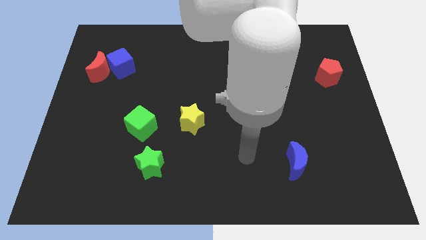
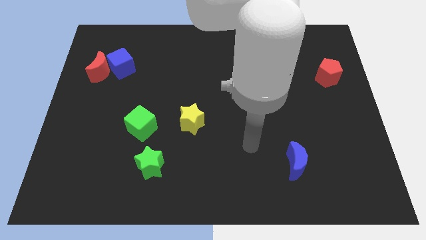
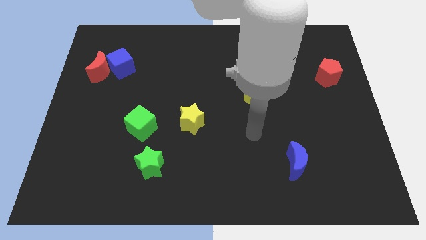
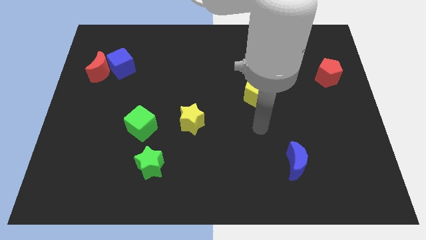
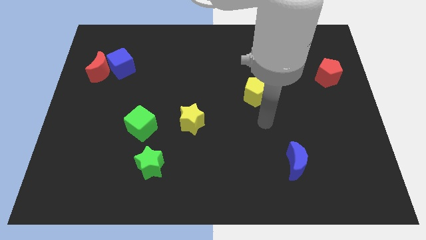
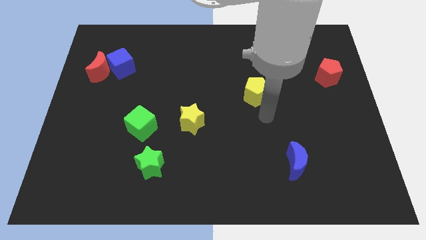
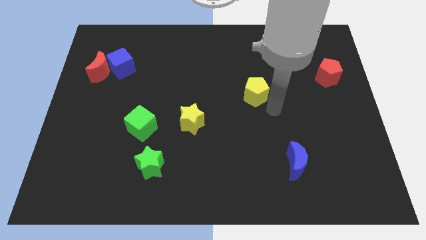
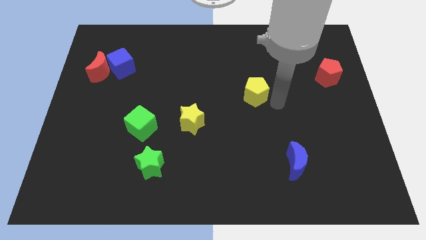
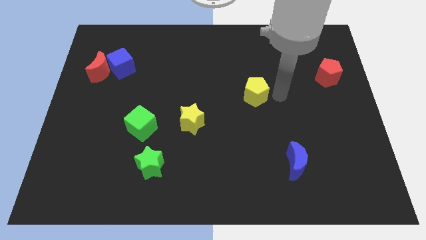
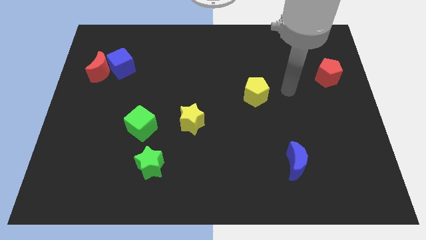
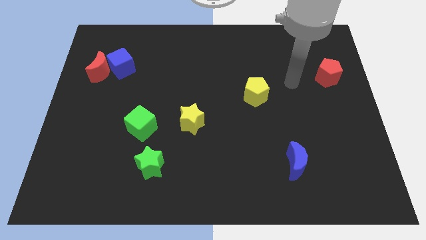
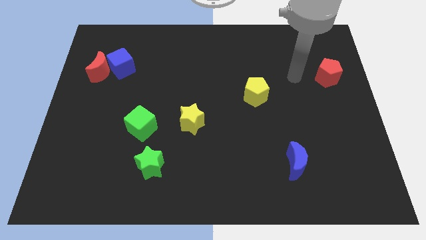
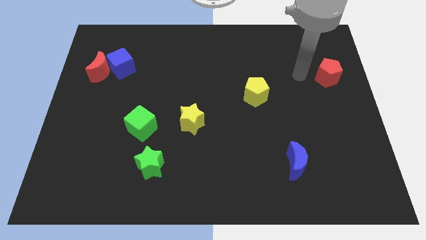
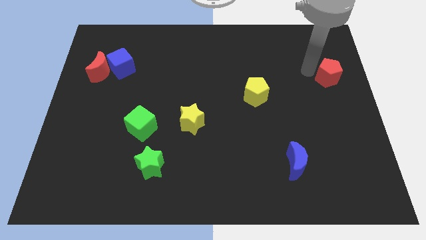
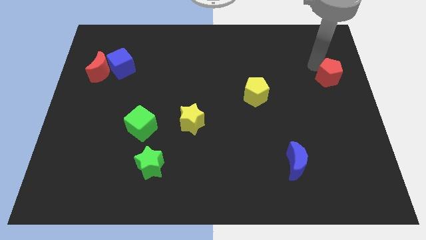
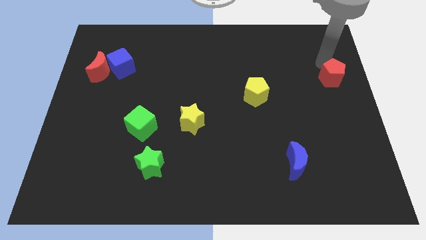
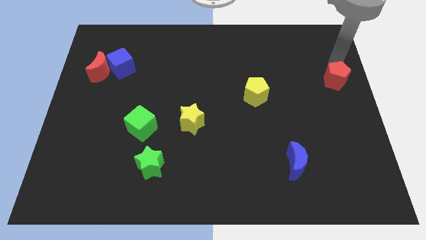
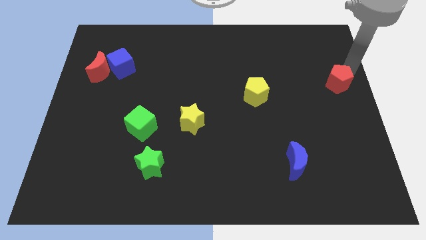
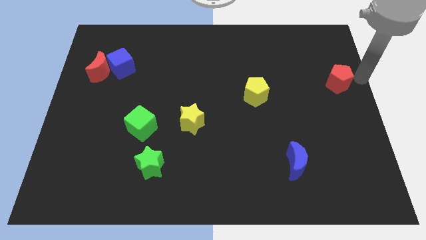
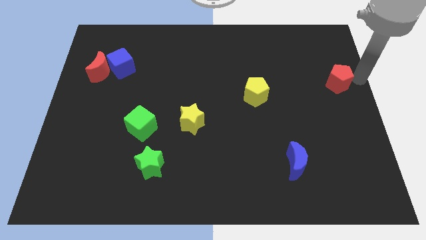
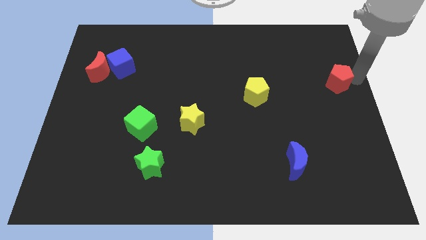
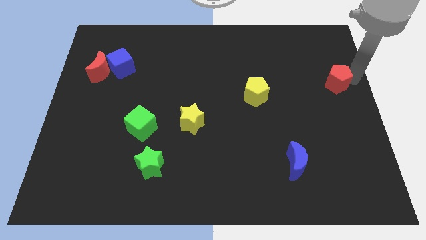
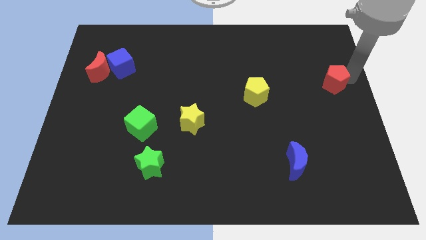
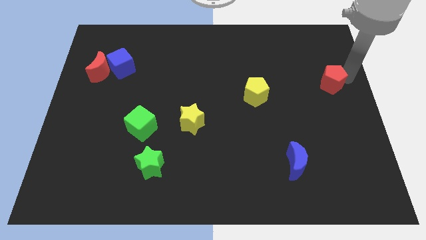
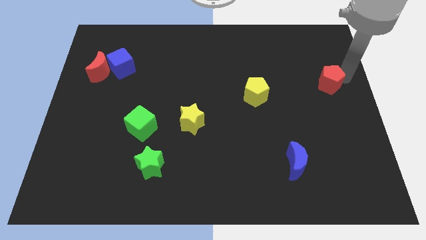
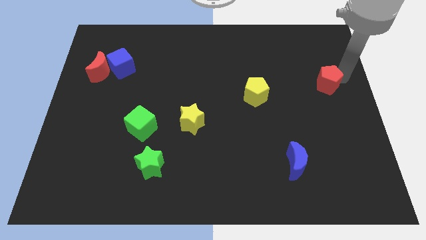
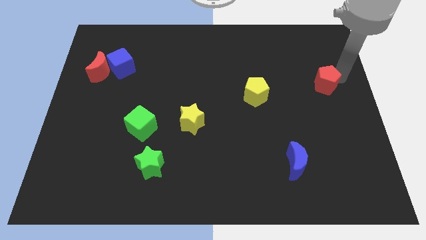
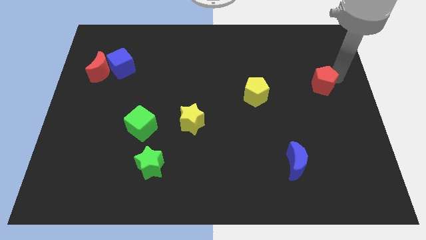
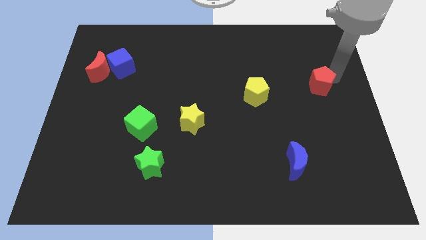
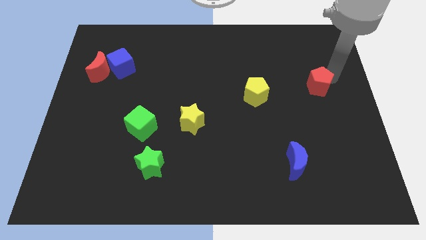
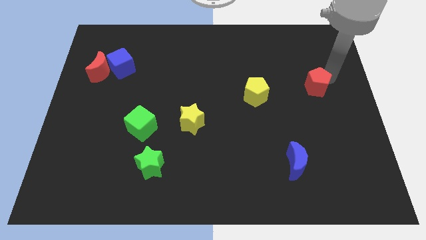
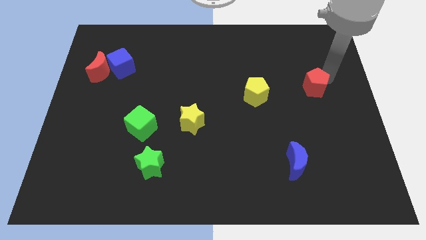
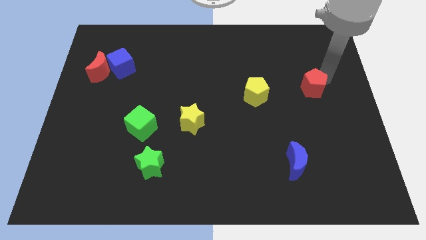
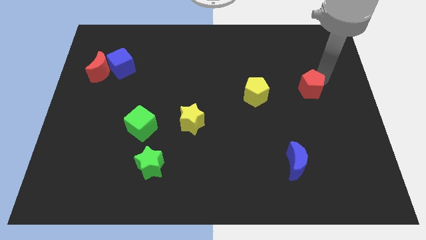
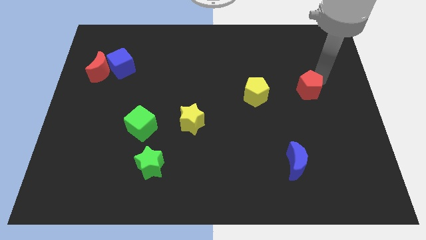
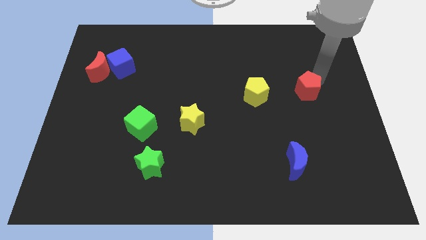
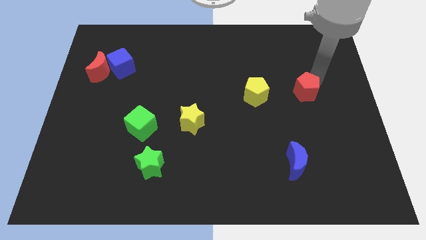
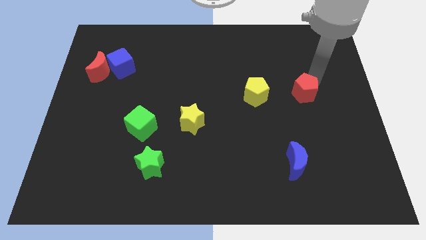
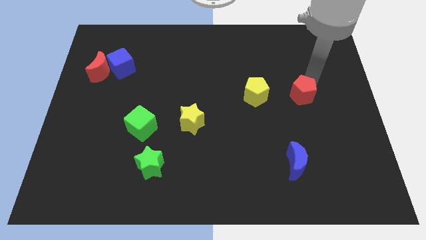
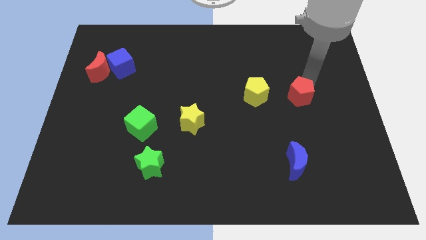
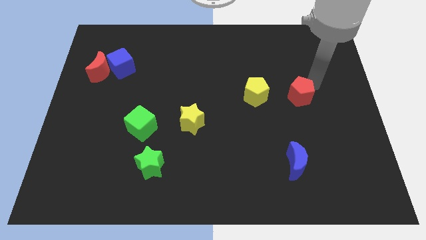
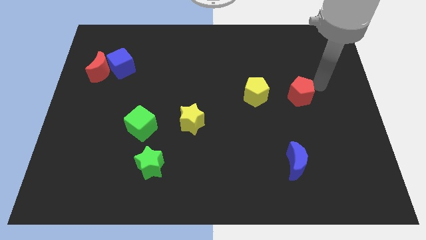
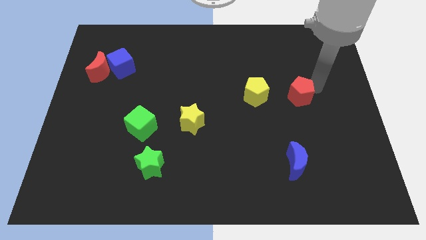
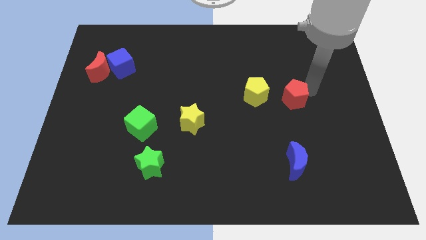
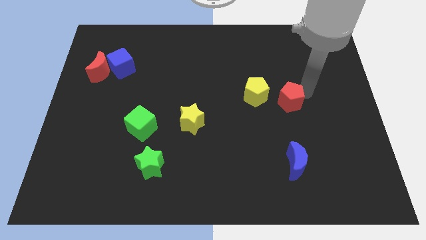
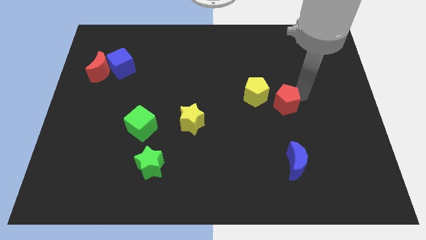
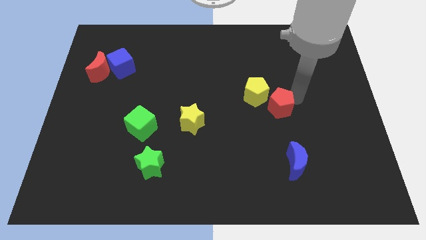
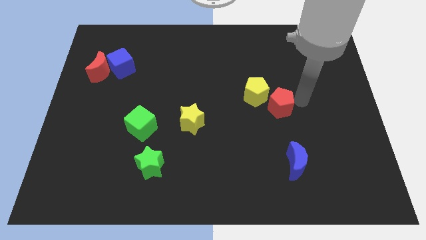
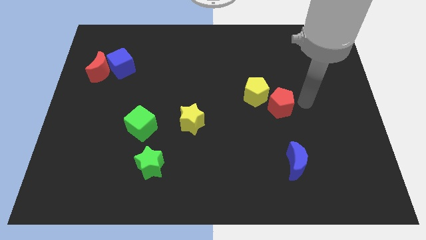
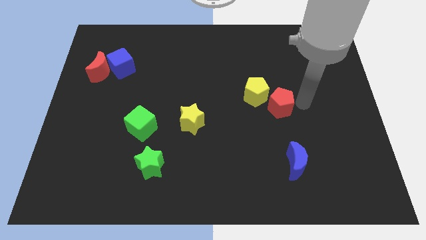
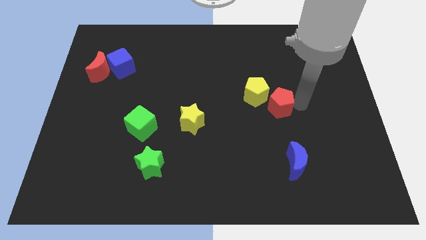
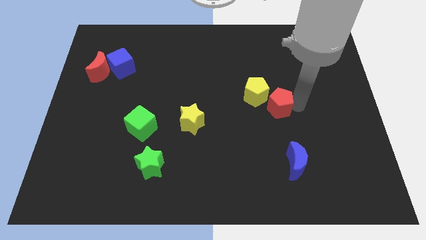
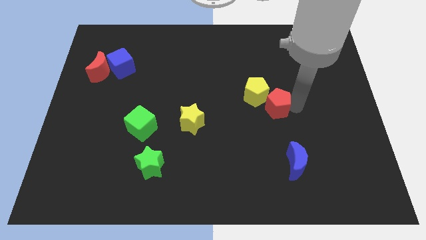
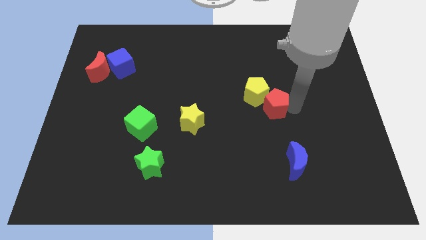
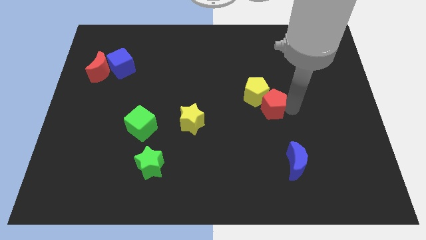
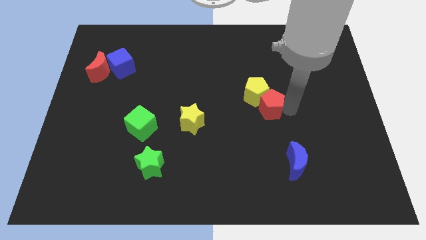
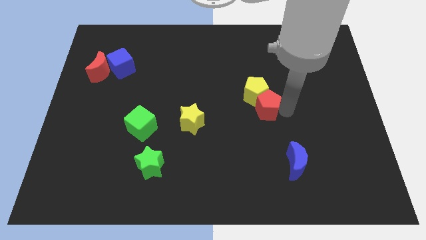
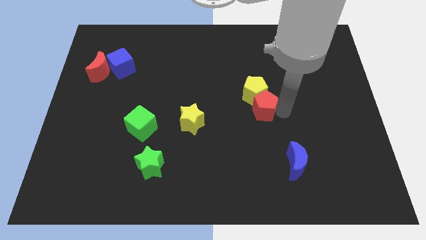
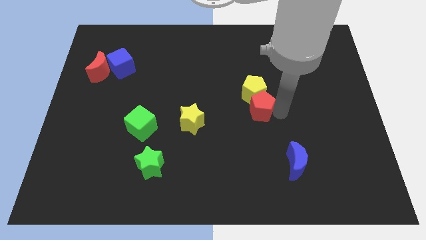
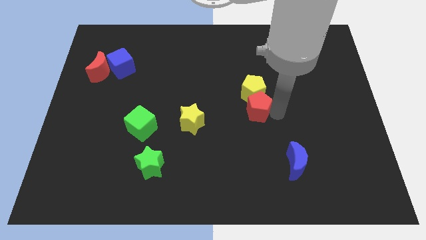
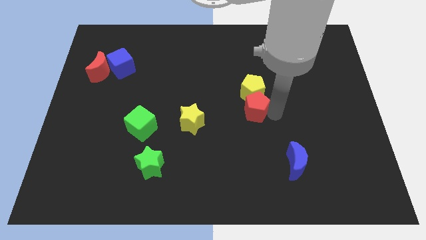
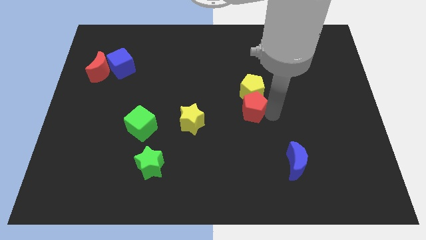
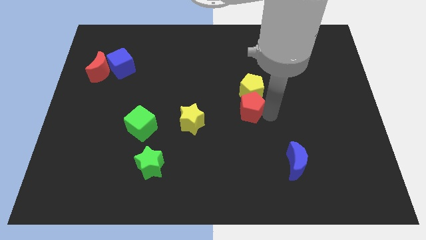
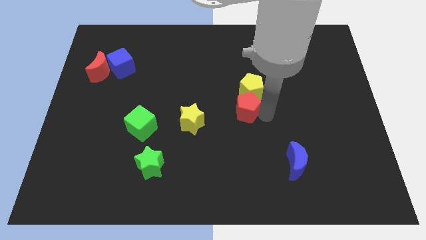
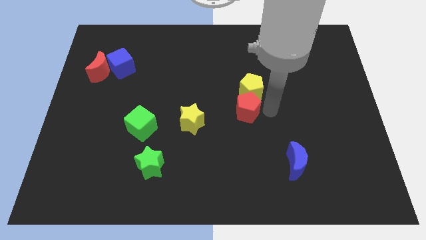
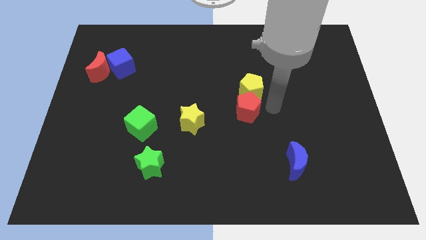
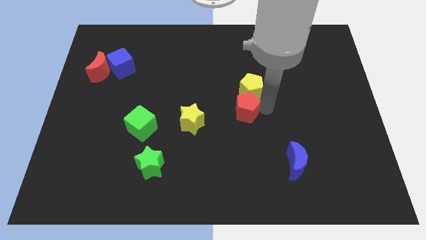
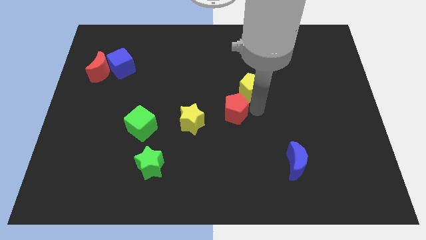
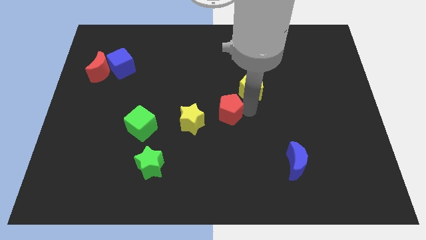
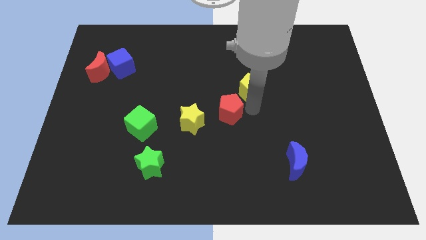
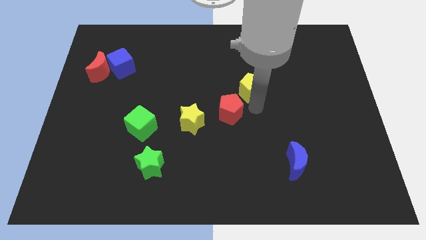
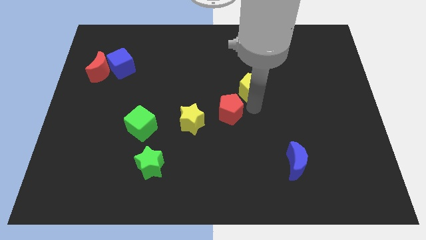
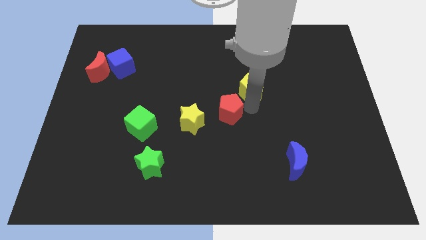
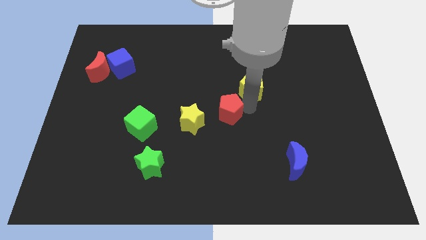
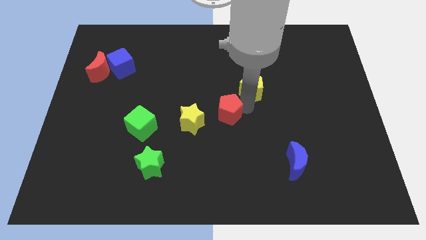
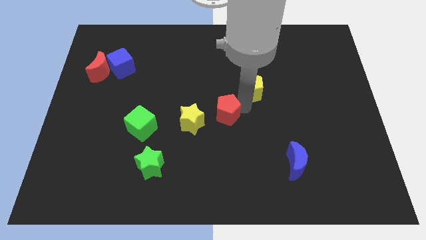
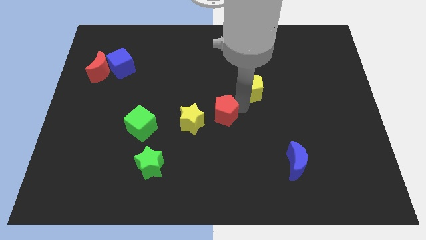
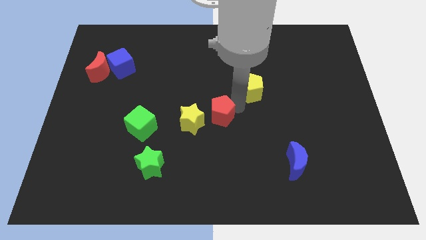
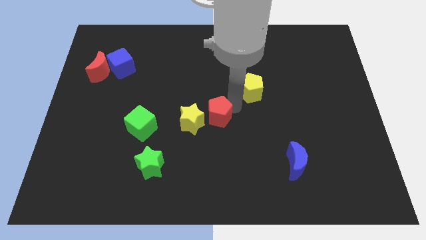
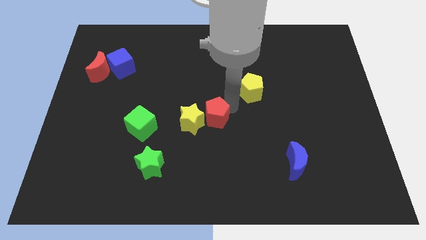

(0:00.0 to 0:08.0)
slide the red pentagon next to the yellow star
